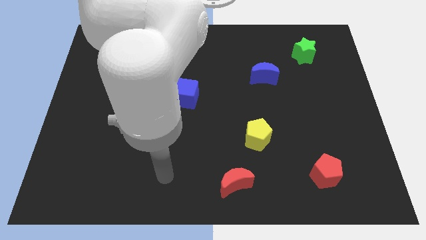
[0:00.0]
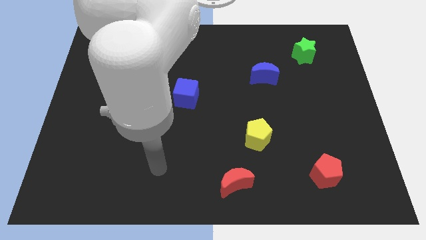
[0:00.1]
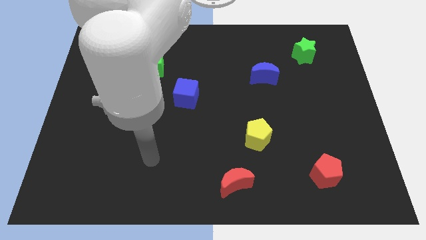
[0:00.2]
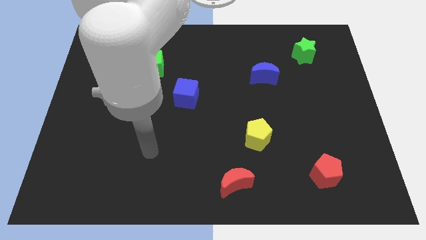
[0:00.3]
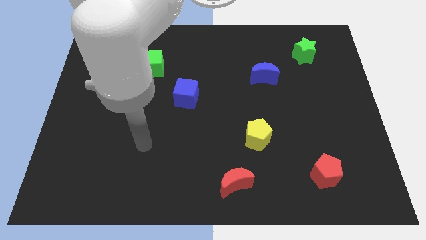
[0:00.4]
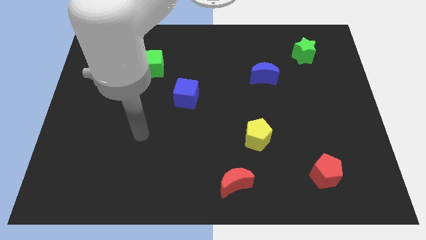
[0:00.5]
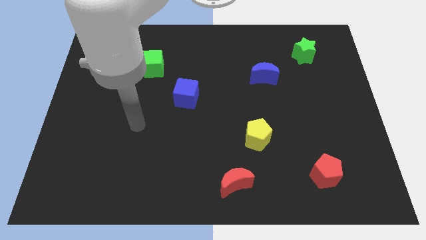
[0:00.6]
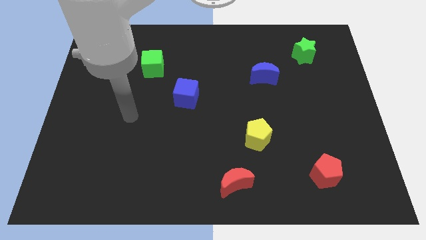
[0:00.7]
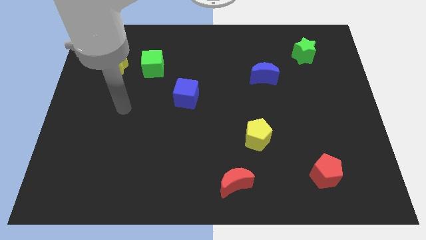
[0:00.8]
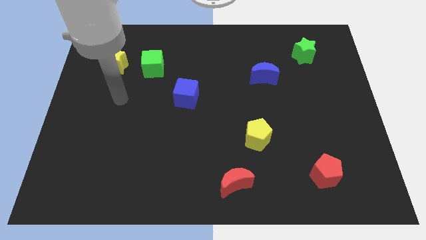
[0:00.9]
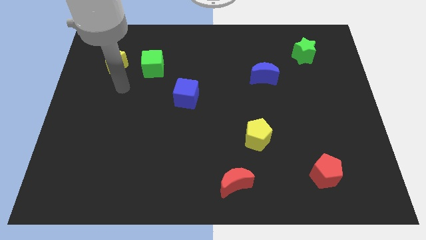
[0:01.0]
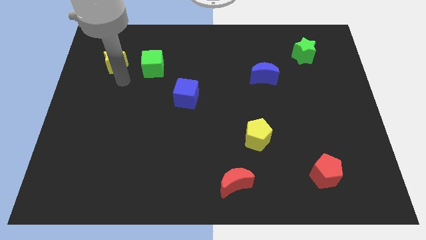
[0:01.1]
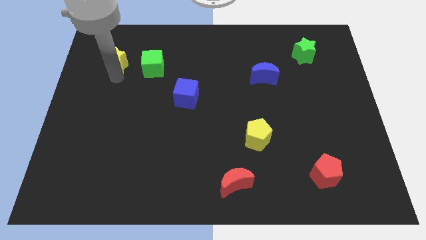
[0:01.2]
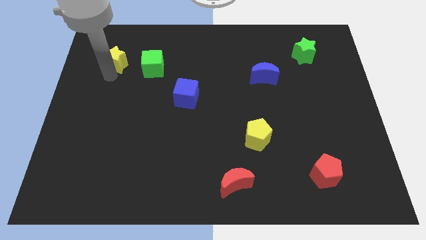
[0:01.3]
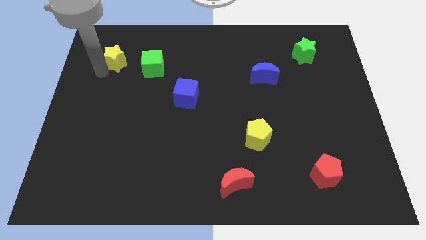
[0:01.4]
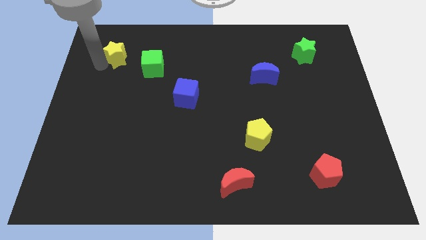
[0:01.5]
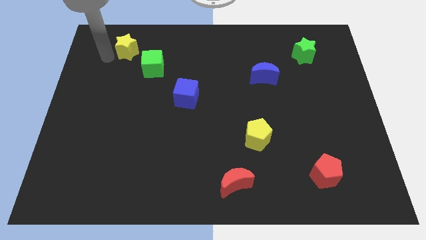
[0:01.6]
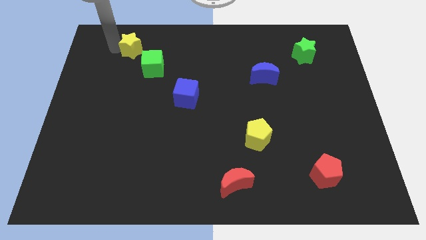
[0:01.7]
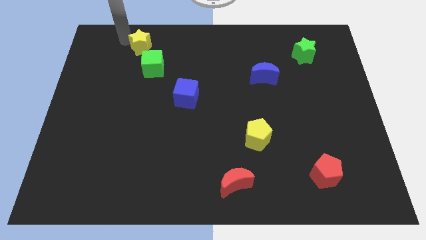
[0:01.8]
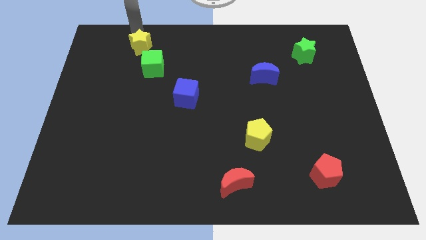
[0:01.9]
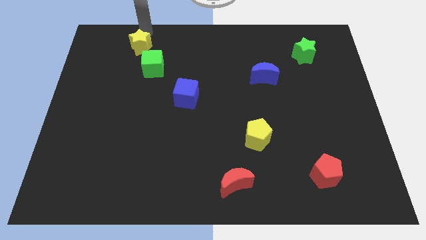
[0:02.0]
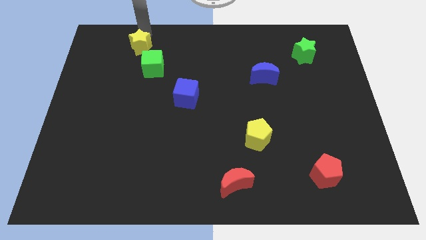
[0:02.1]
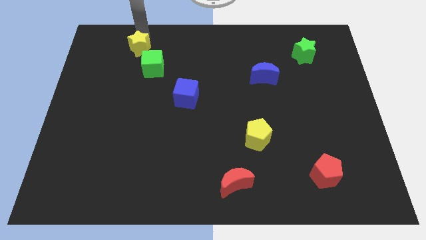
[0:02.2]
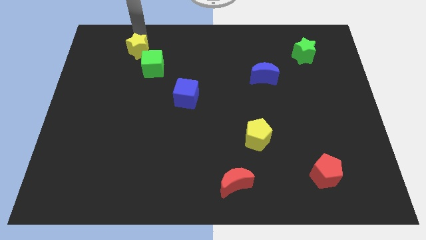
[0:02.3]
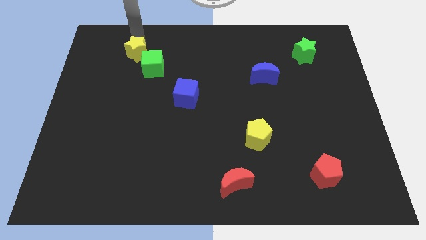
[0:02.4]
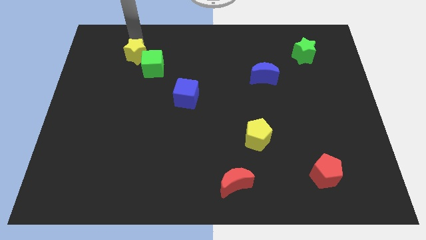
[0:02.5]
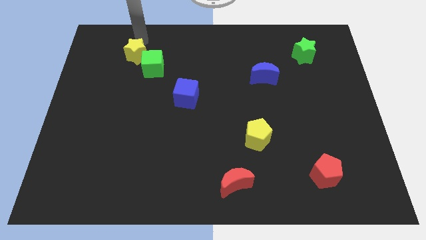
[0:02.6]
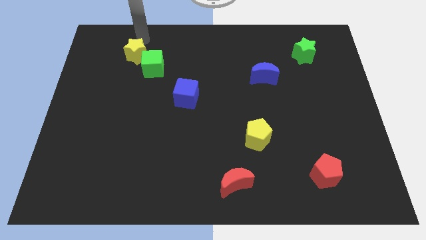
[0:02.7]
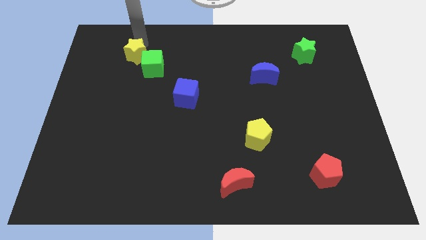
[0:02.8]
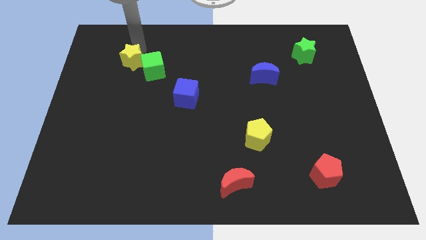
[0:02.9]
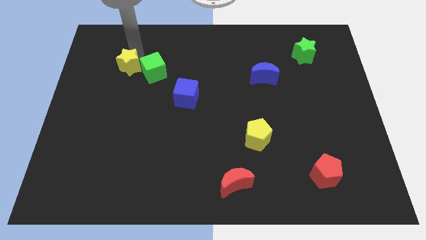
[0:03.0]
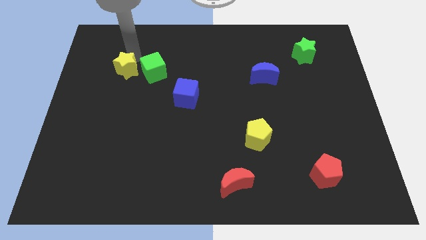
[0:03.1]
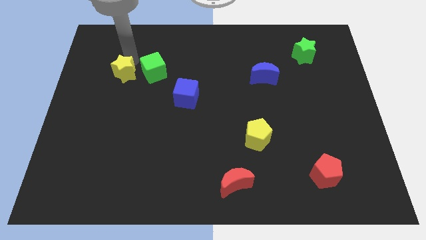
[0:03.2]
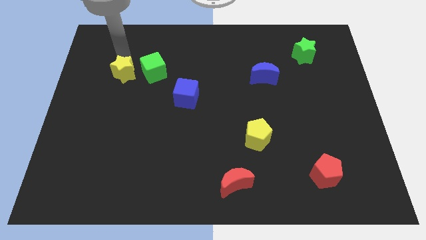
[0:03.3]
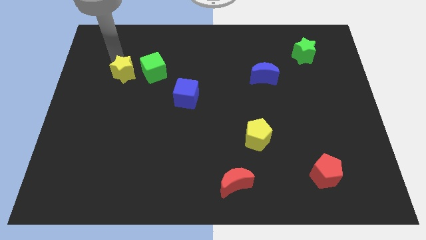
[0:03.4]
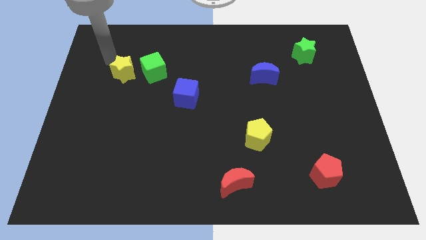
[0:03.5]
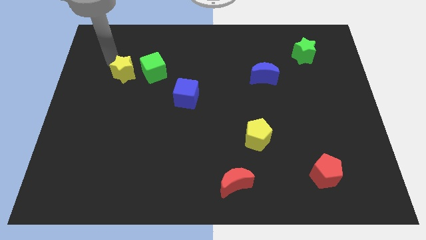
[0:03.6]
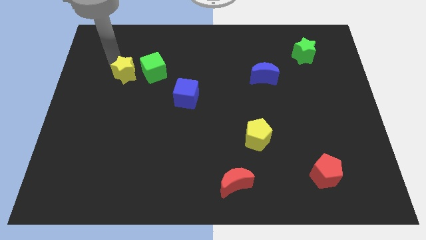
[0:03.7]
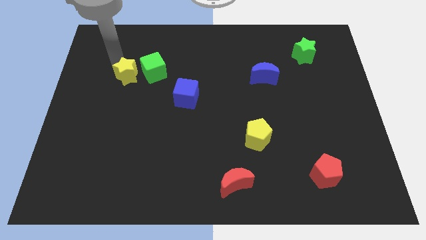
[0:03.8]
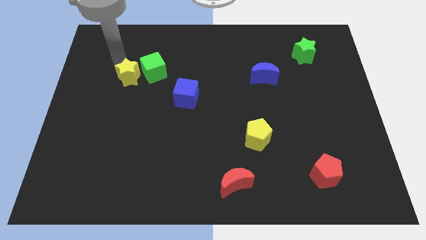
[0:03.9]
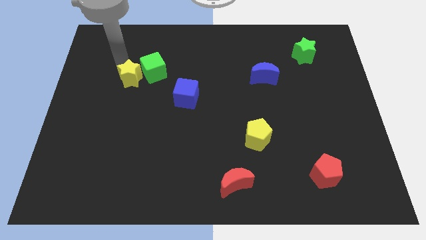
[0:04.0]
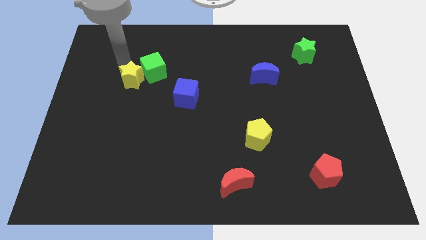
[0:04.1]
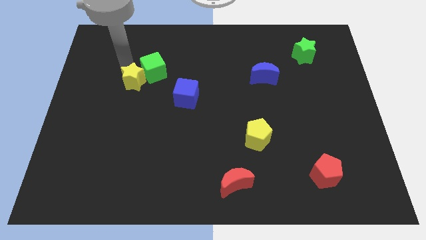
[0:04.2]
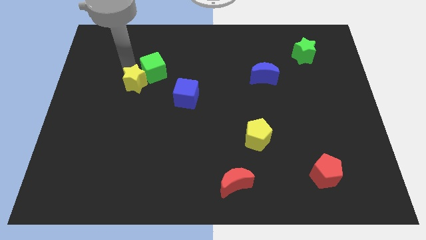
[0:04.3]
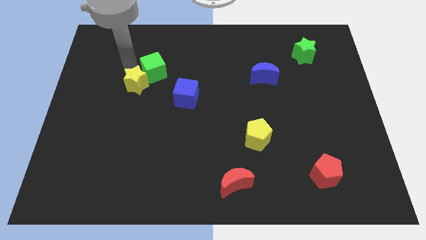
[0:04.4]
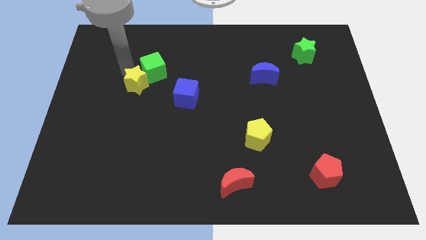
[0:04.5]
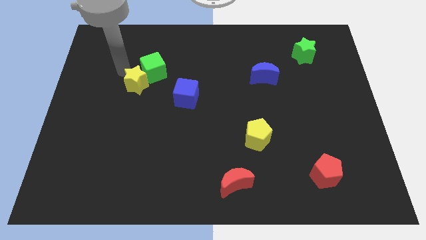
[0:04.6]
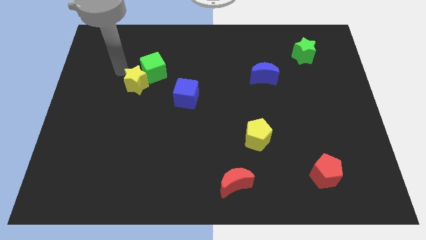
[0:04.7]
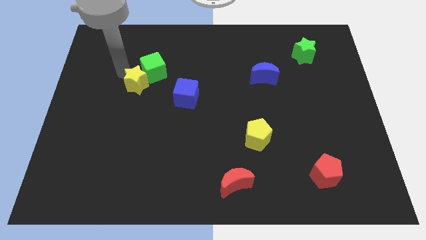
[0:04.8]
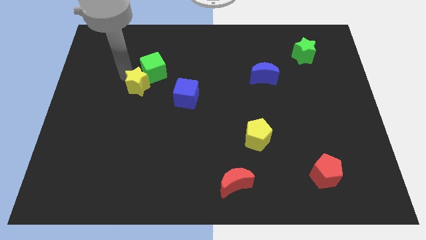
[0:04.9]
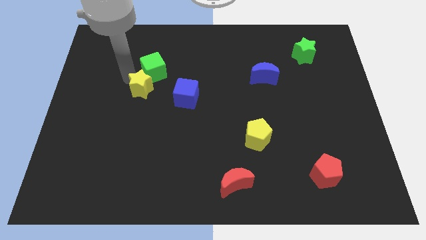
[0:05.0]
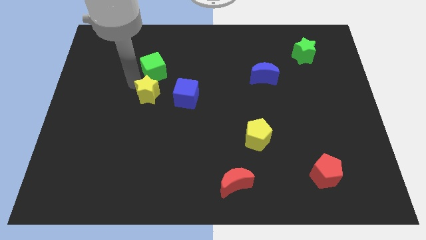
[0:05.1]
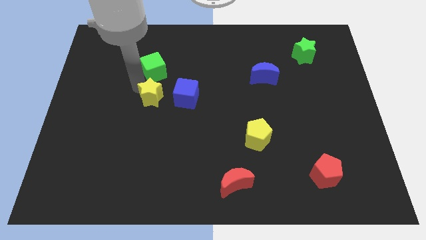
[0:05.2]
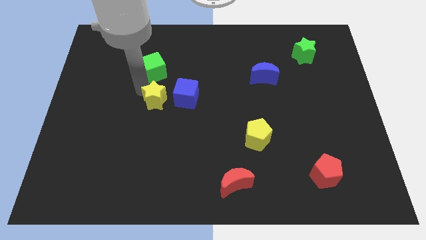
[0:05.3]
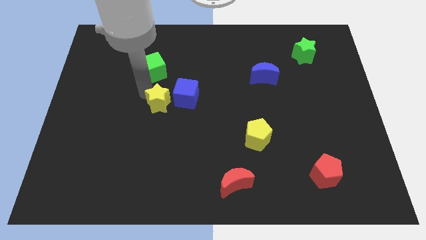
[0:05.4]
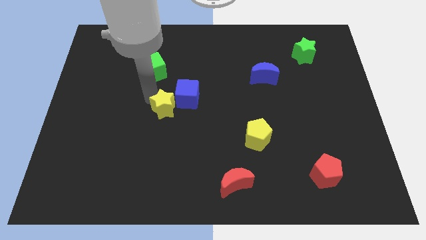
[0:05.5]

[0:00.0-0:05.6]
push the yellow star down and then to the right

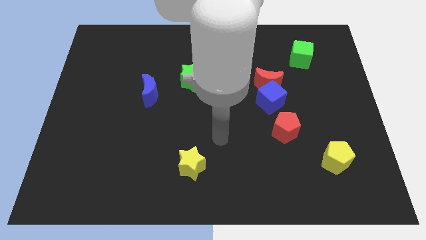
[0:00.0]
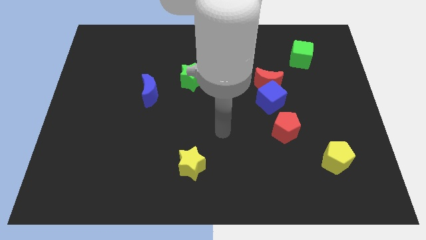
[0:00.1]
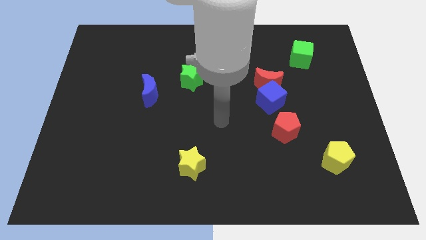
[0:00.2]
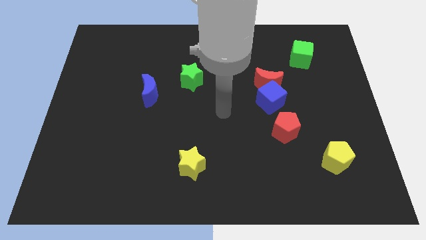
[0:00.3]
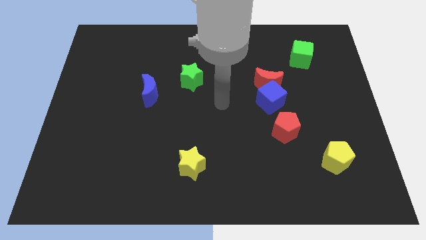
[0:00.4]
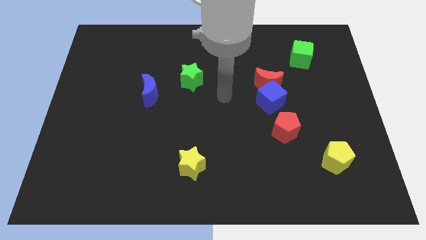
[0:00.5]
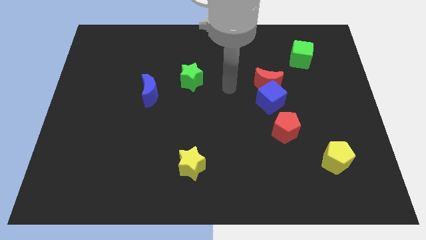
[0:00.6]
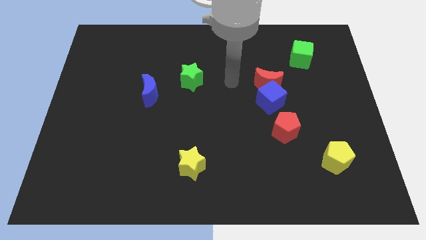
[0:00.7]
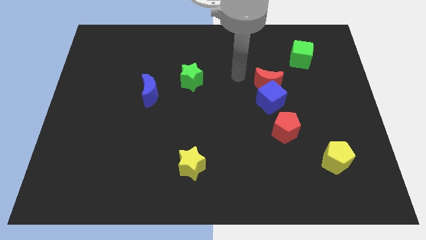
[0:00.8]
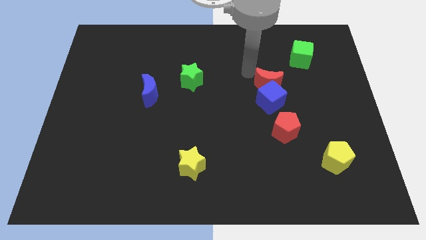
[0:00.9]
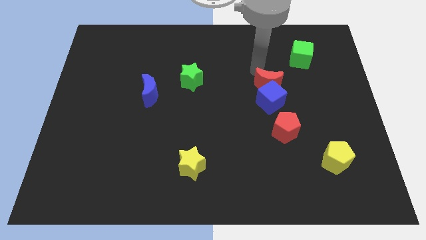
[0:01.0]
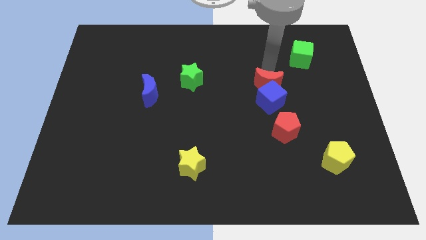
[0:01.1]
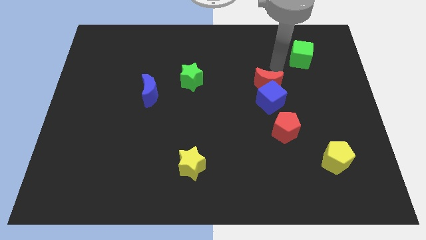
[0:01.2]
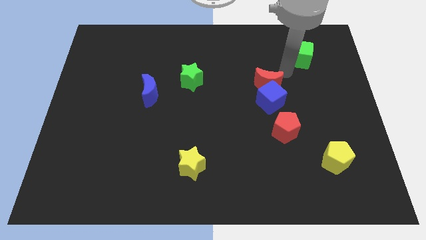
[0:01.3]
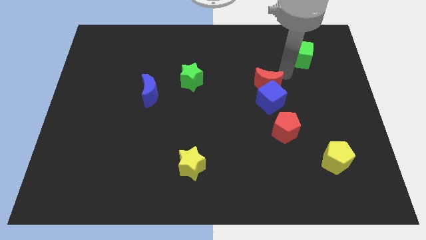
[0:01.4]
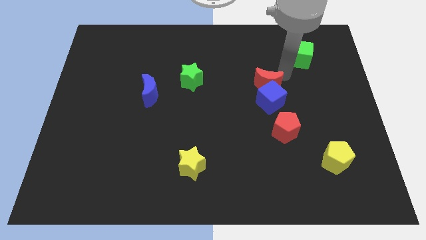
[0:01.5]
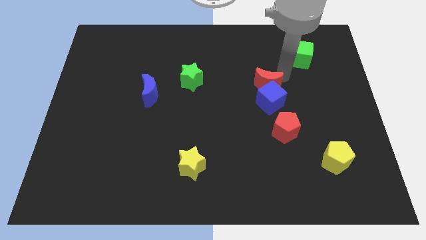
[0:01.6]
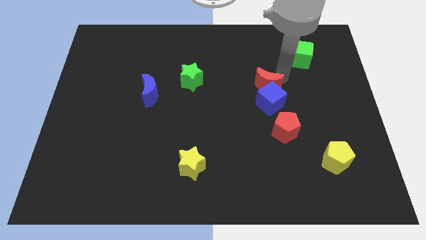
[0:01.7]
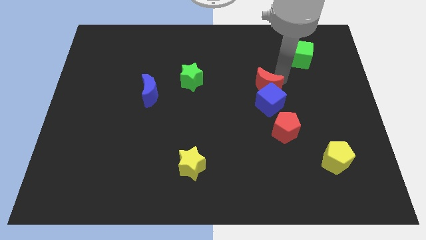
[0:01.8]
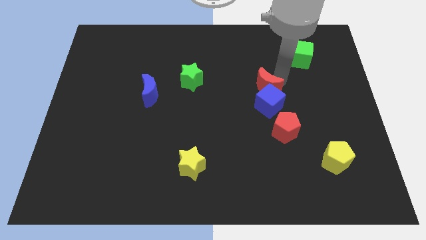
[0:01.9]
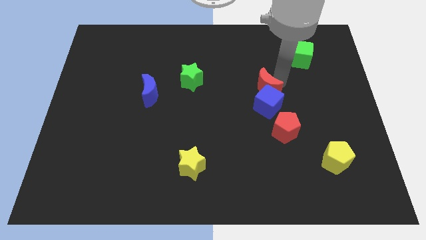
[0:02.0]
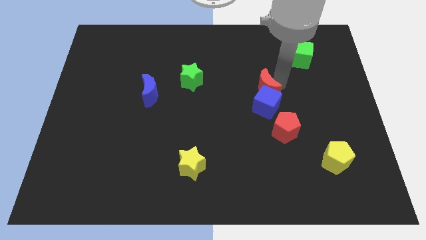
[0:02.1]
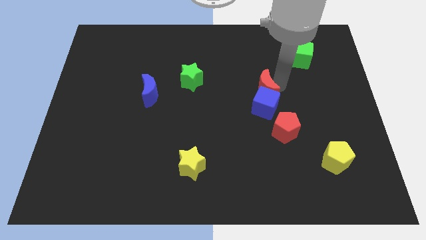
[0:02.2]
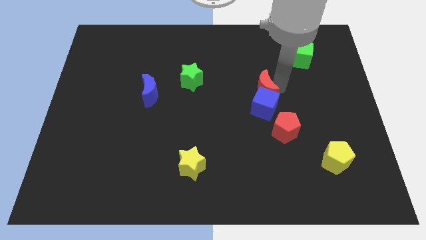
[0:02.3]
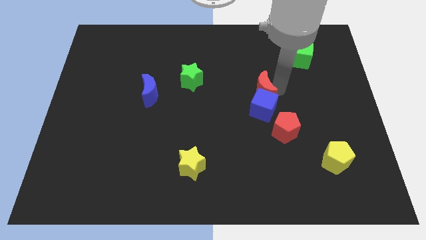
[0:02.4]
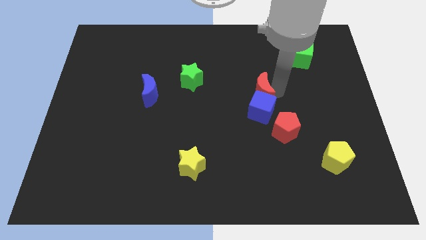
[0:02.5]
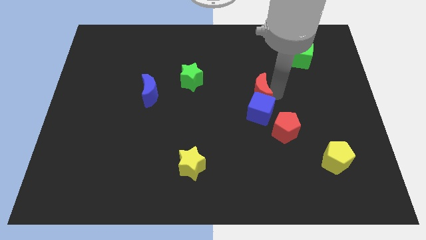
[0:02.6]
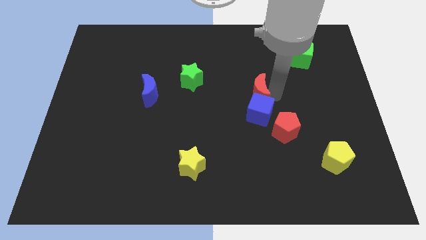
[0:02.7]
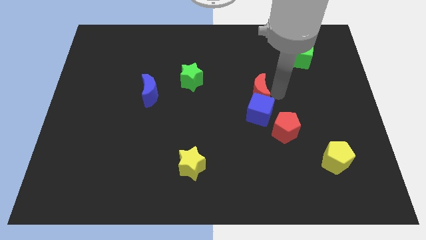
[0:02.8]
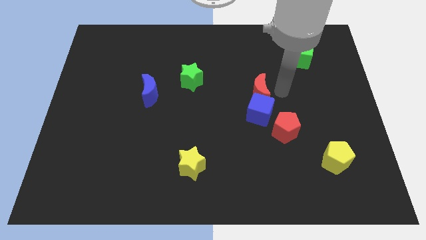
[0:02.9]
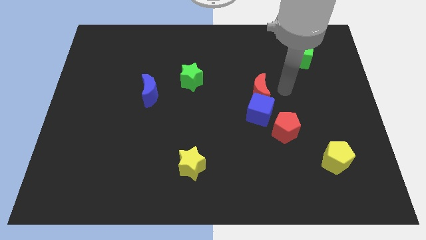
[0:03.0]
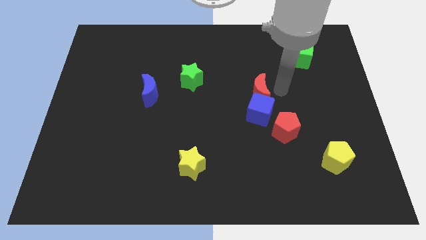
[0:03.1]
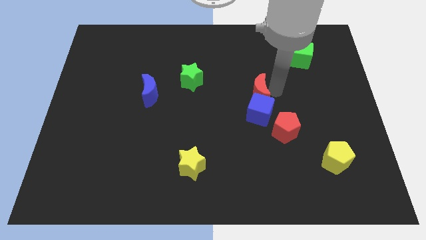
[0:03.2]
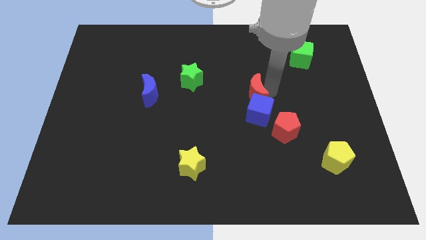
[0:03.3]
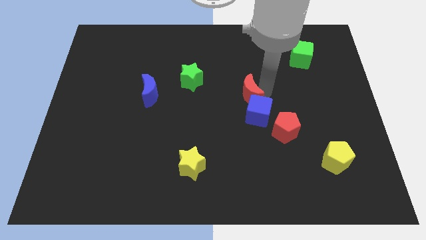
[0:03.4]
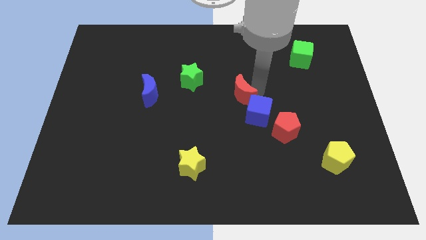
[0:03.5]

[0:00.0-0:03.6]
push the red moon slightly down and left
